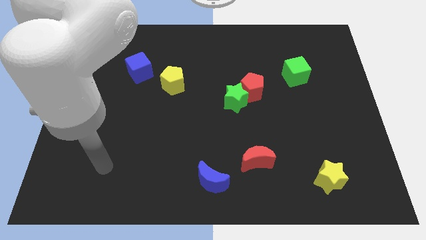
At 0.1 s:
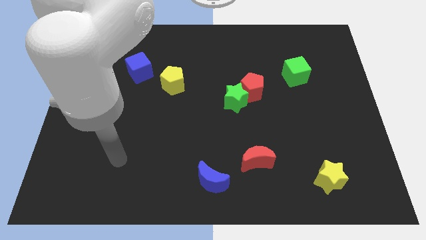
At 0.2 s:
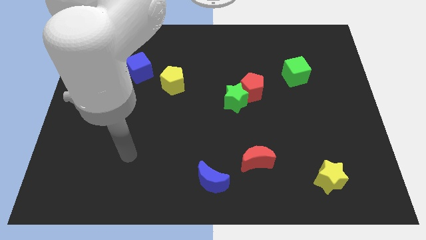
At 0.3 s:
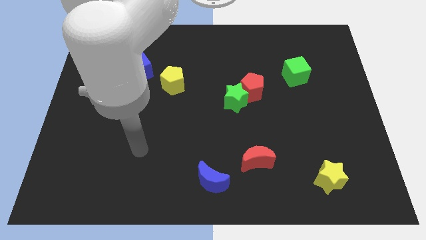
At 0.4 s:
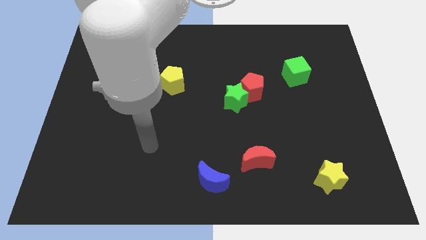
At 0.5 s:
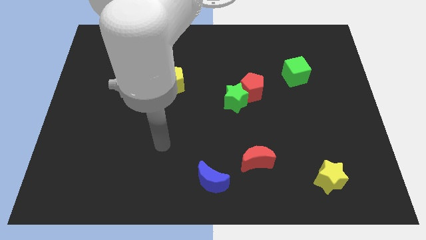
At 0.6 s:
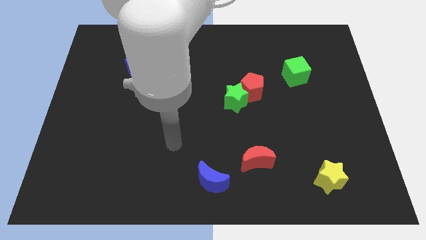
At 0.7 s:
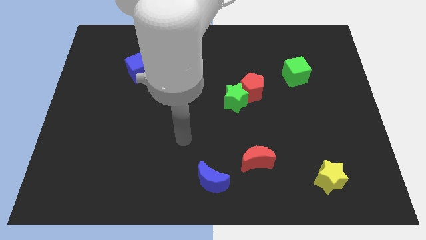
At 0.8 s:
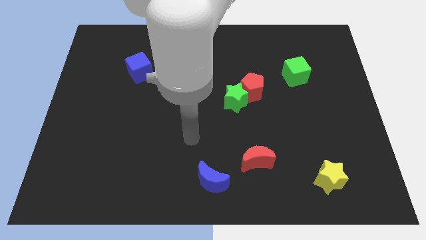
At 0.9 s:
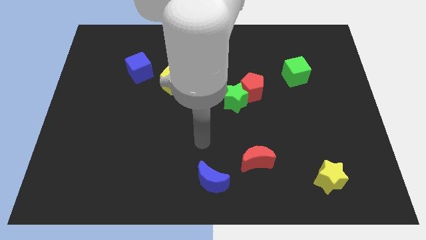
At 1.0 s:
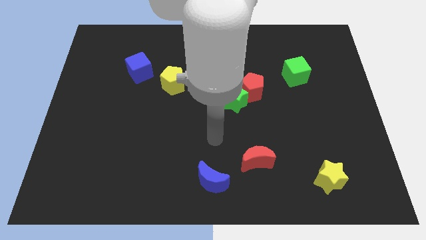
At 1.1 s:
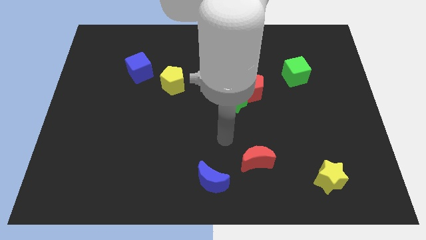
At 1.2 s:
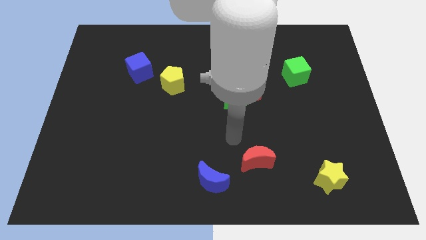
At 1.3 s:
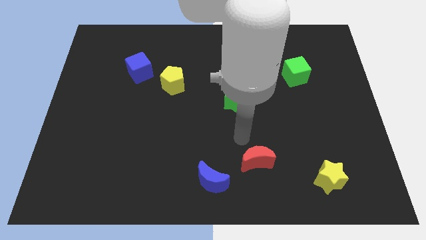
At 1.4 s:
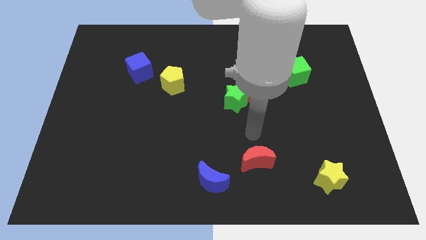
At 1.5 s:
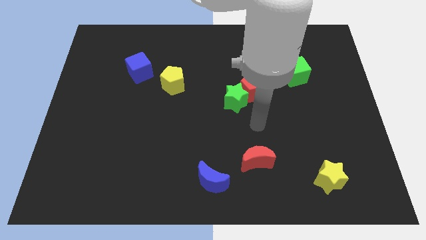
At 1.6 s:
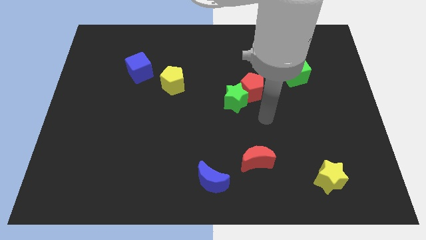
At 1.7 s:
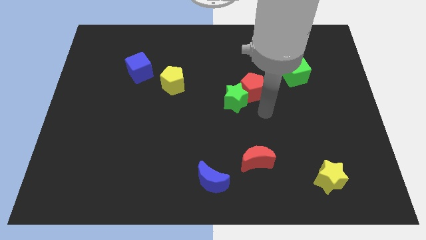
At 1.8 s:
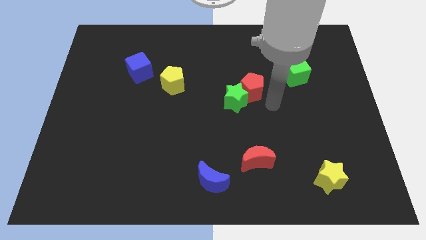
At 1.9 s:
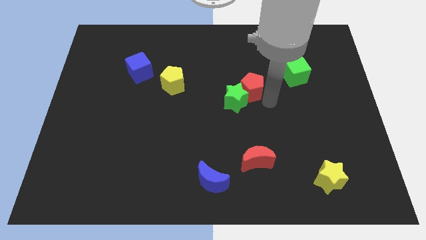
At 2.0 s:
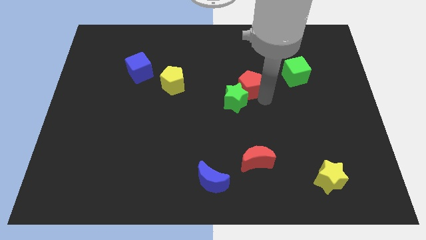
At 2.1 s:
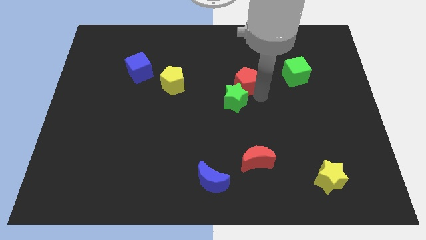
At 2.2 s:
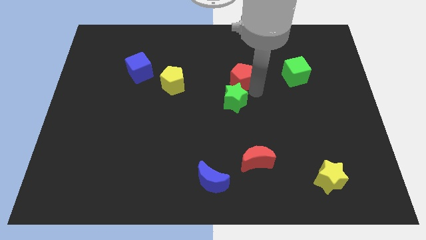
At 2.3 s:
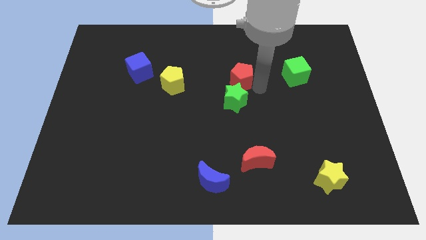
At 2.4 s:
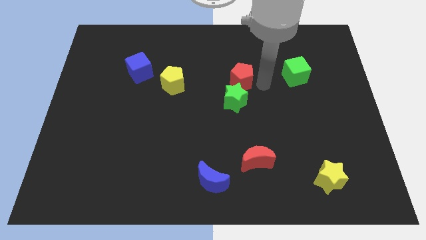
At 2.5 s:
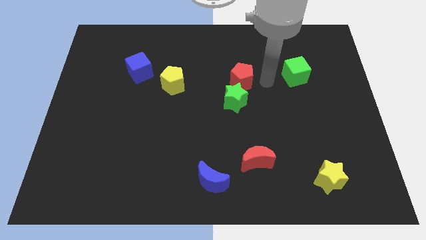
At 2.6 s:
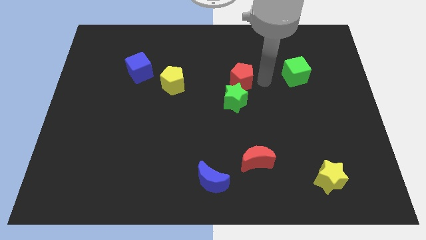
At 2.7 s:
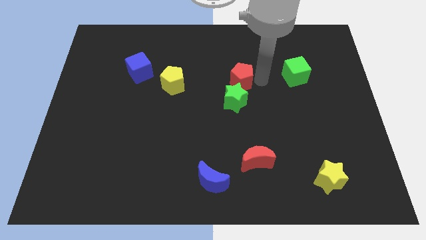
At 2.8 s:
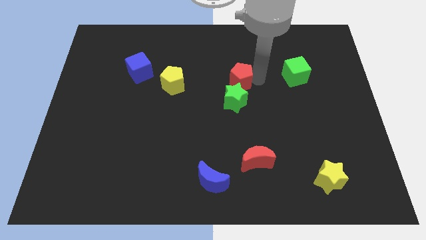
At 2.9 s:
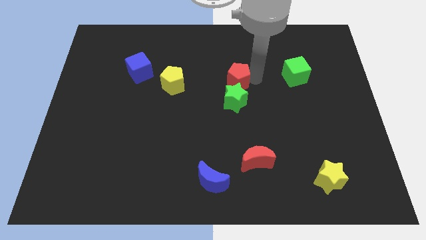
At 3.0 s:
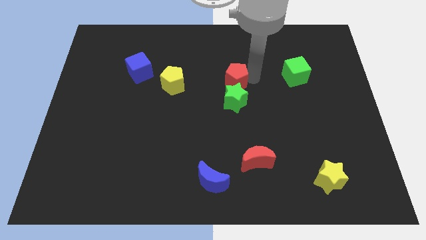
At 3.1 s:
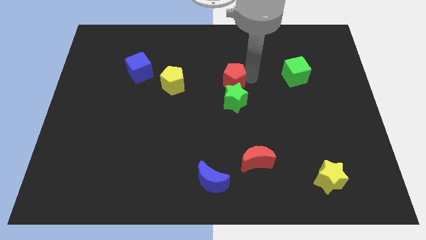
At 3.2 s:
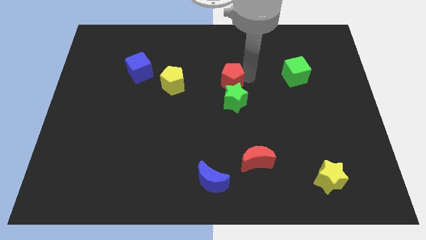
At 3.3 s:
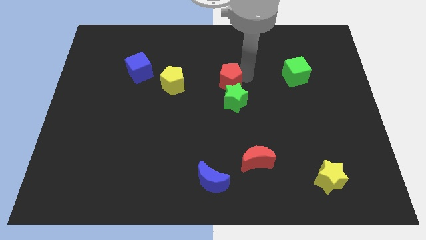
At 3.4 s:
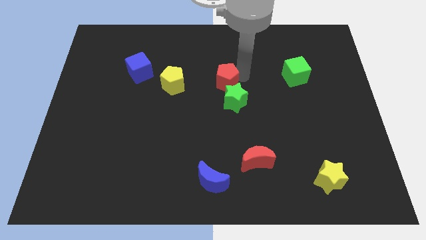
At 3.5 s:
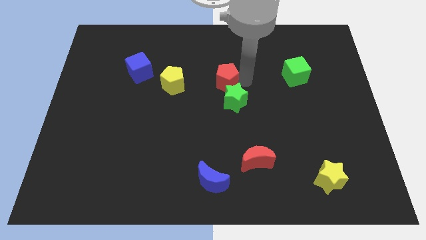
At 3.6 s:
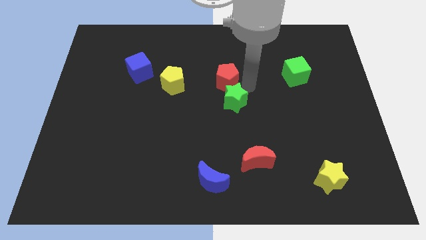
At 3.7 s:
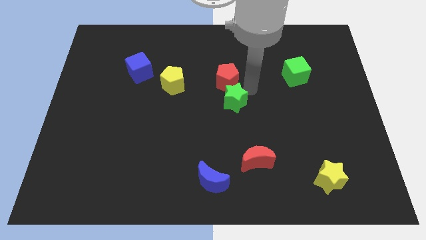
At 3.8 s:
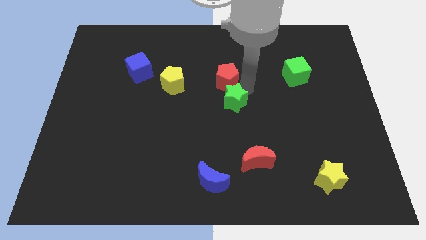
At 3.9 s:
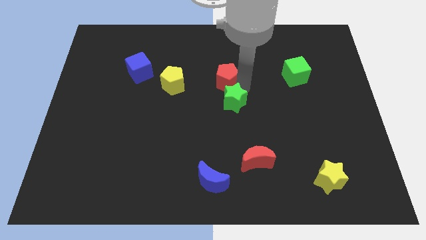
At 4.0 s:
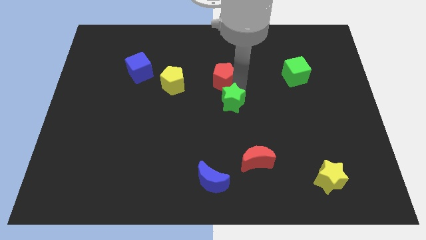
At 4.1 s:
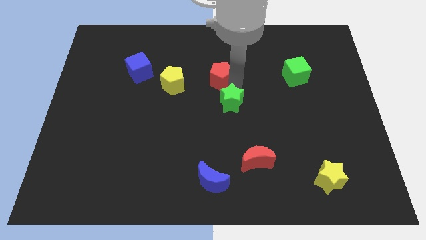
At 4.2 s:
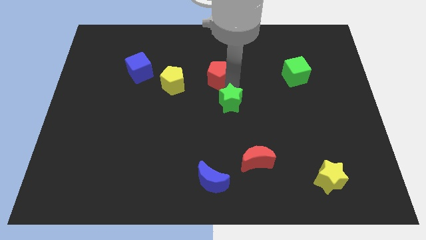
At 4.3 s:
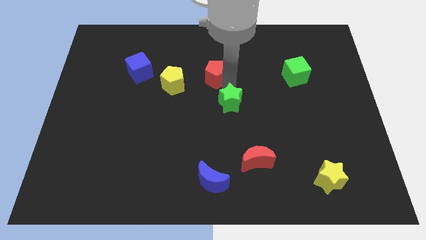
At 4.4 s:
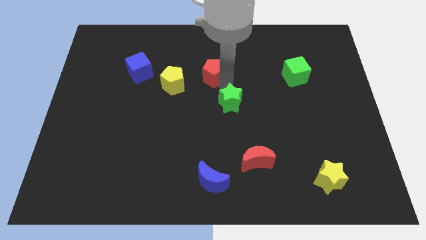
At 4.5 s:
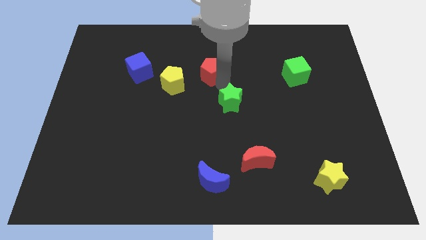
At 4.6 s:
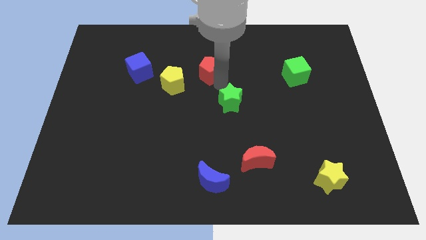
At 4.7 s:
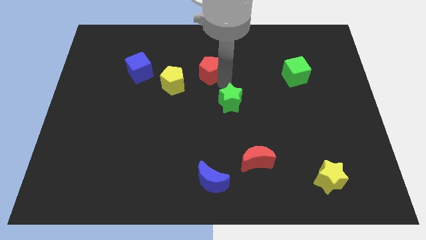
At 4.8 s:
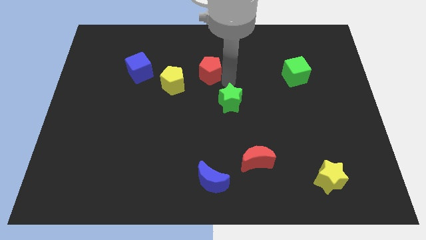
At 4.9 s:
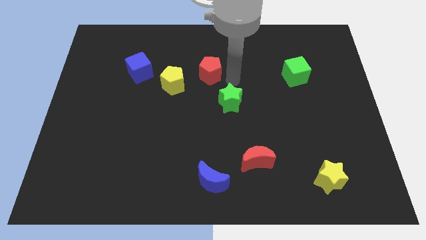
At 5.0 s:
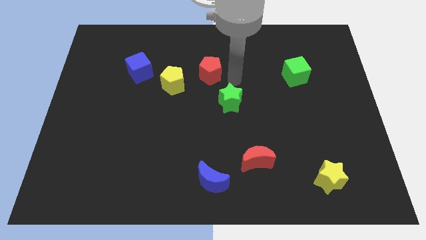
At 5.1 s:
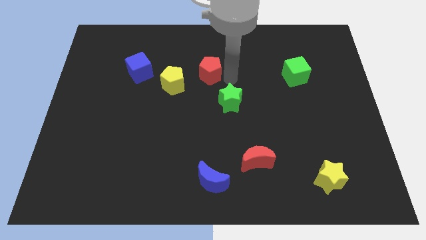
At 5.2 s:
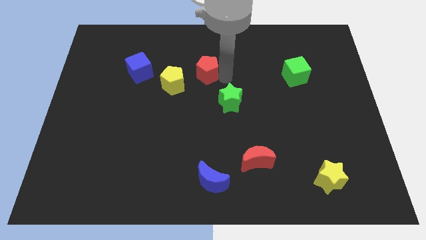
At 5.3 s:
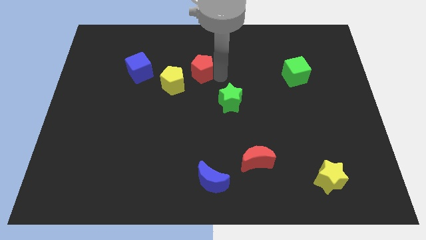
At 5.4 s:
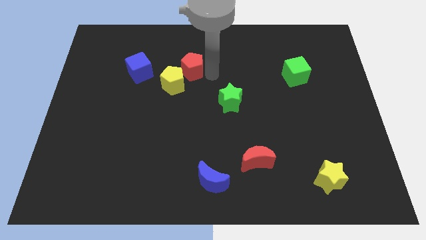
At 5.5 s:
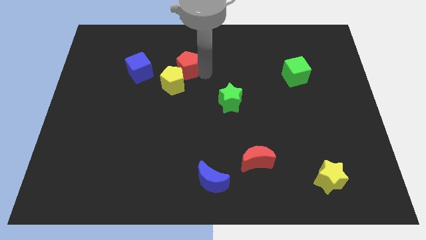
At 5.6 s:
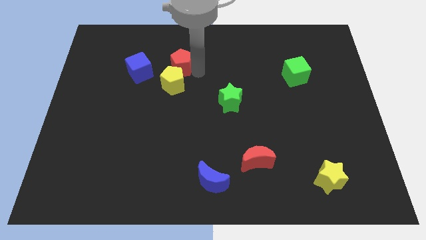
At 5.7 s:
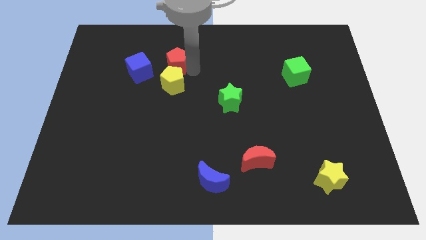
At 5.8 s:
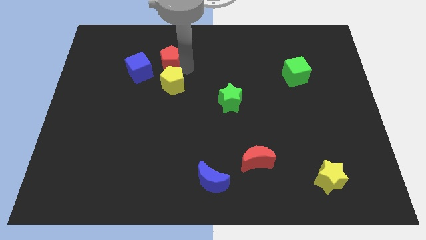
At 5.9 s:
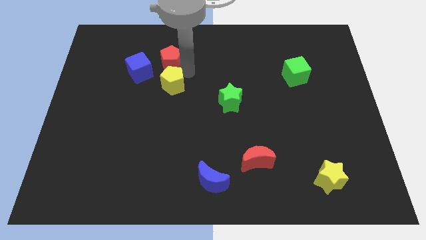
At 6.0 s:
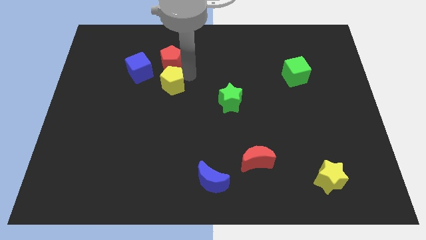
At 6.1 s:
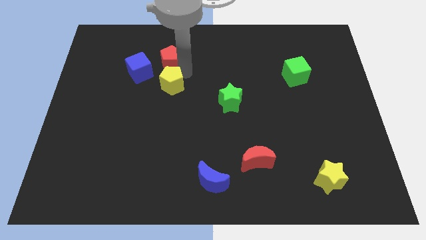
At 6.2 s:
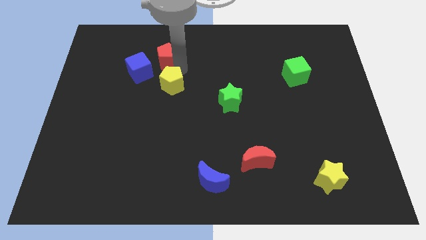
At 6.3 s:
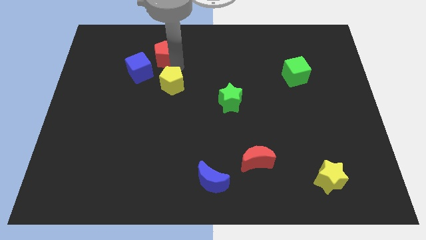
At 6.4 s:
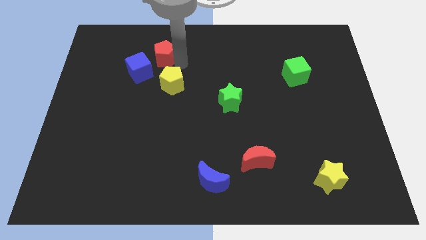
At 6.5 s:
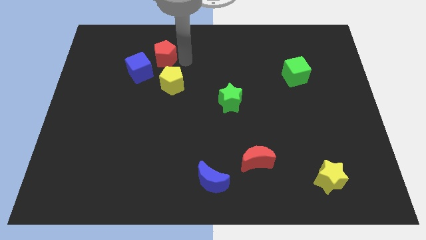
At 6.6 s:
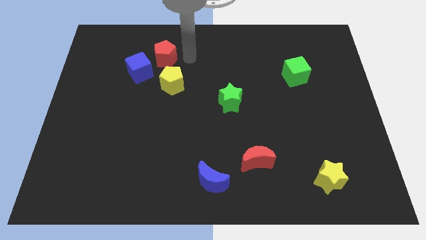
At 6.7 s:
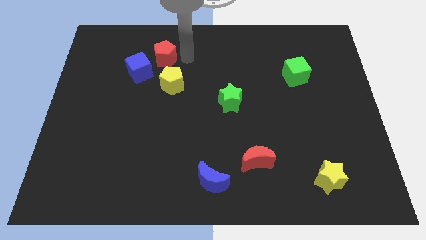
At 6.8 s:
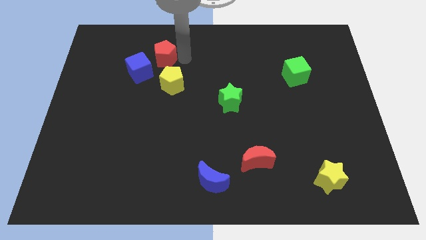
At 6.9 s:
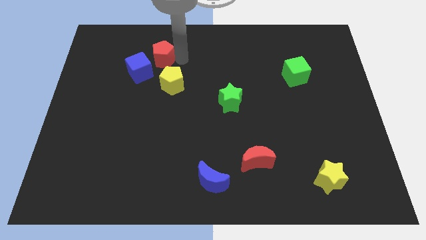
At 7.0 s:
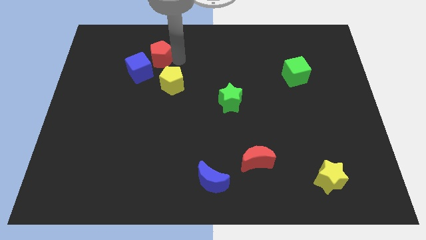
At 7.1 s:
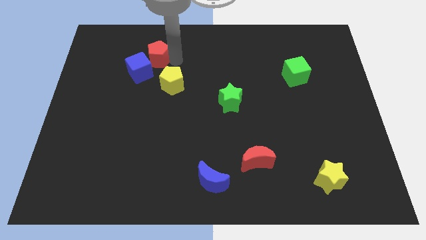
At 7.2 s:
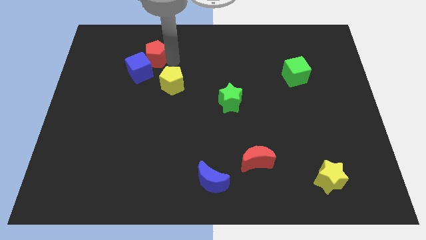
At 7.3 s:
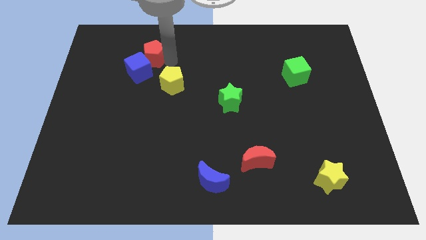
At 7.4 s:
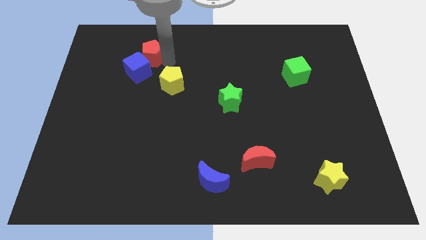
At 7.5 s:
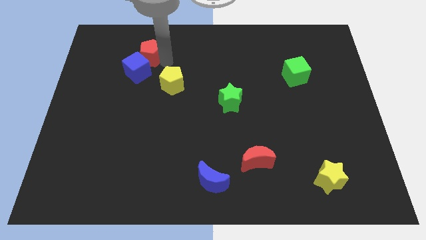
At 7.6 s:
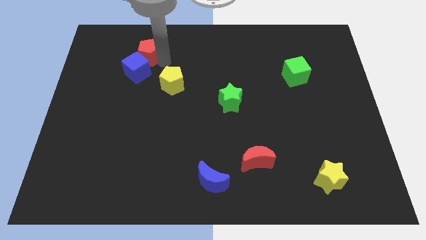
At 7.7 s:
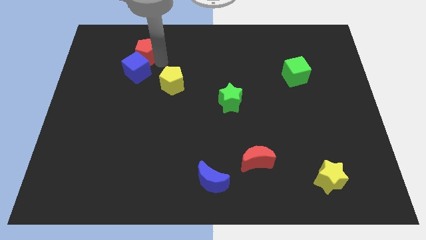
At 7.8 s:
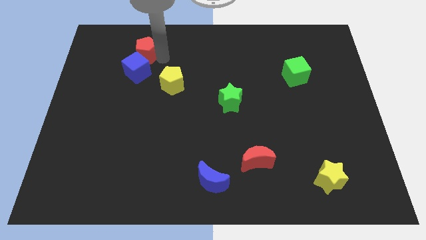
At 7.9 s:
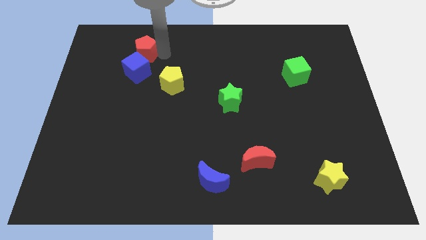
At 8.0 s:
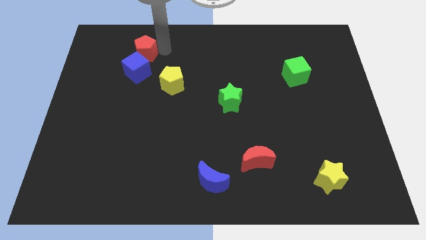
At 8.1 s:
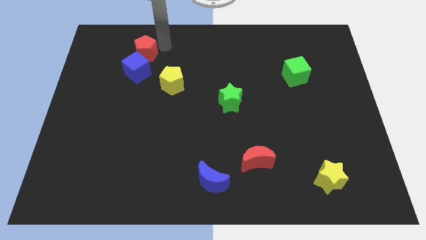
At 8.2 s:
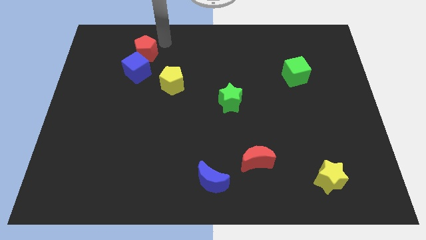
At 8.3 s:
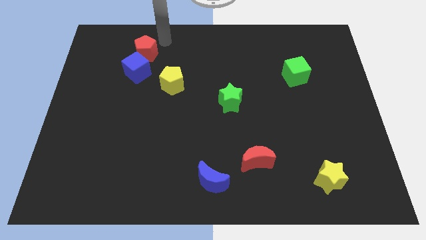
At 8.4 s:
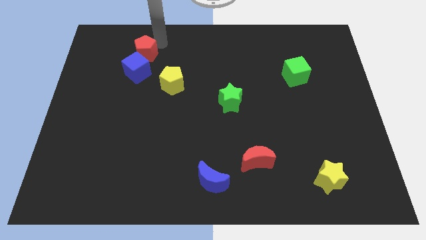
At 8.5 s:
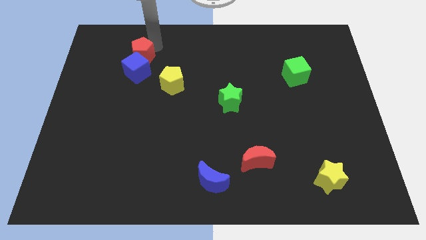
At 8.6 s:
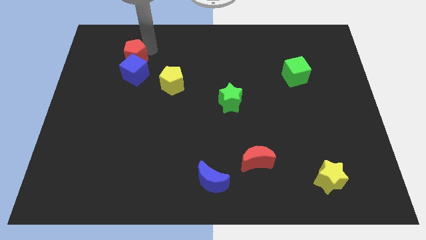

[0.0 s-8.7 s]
slide the red pentagon left
